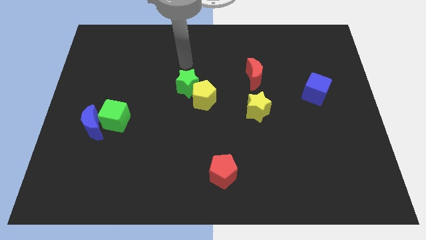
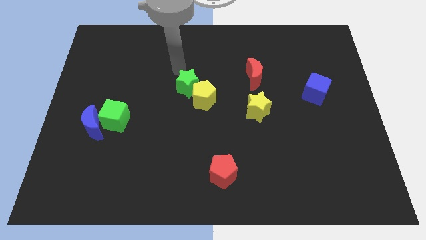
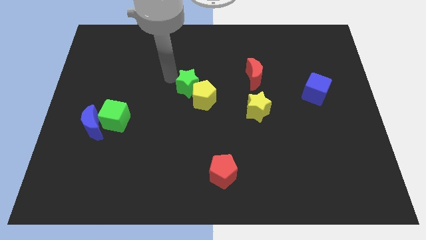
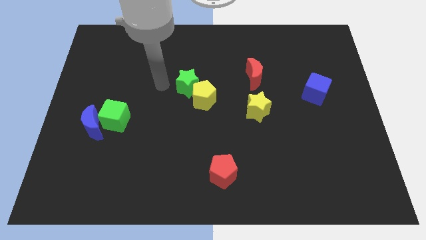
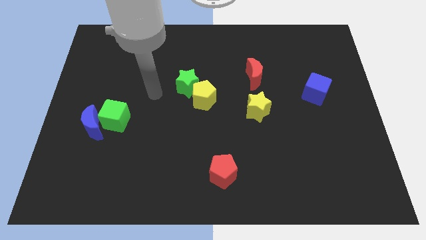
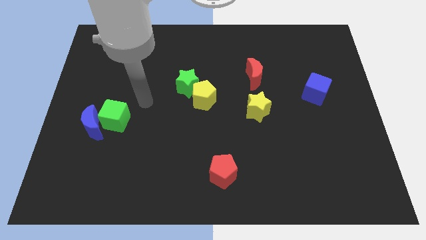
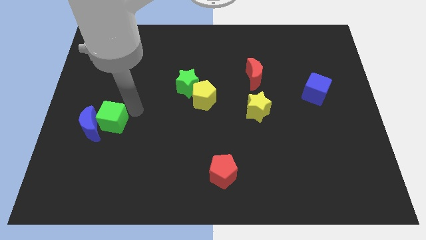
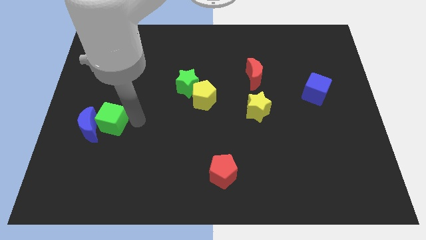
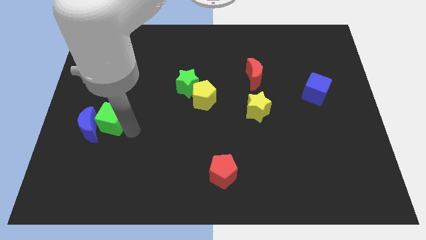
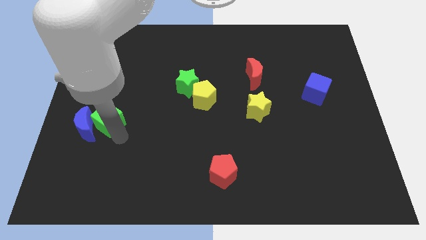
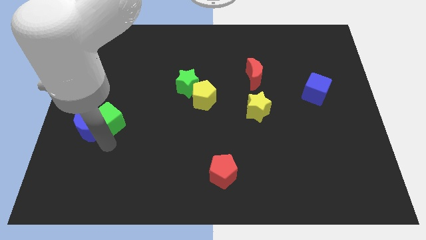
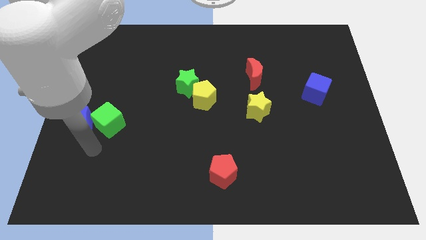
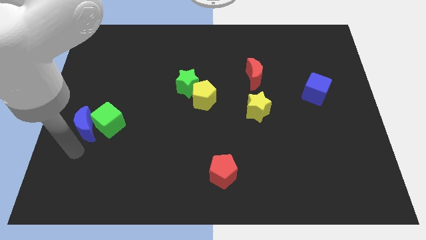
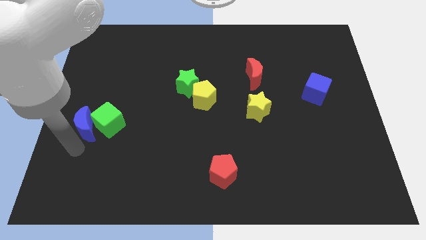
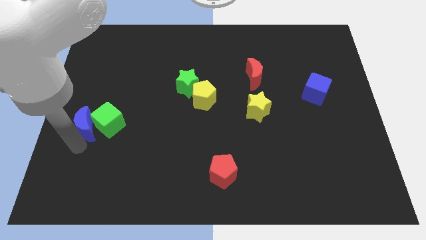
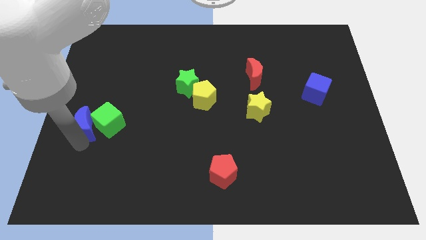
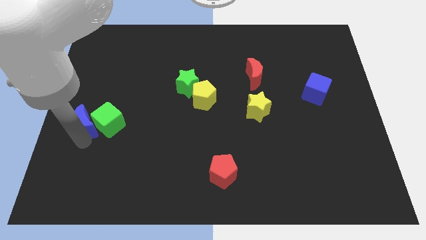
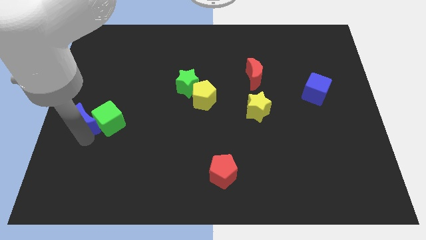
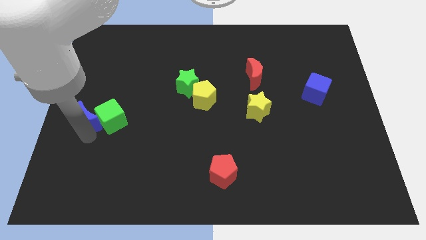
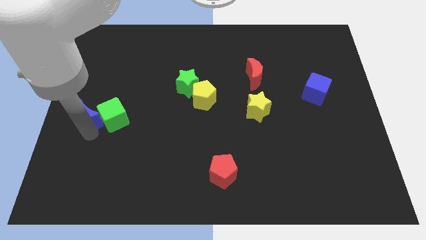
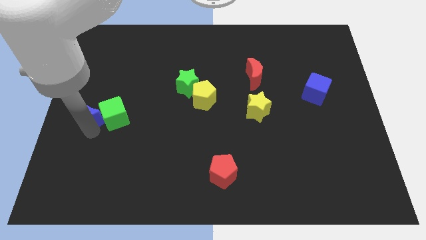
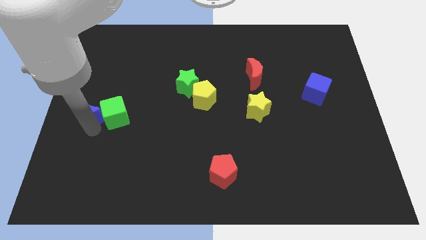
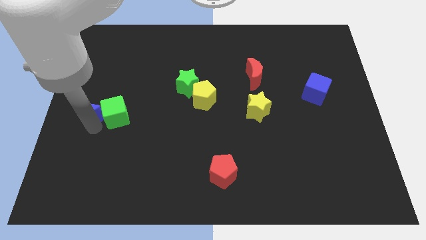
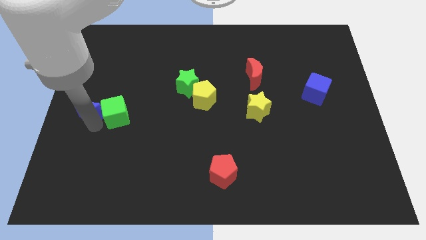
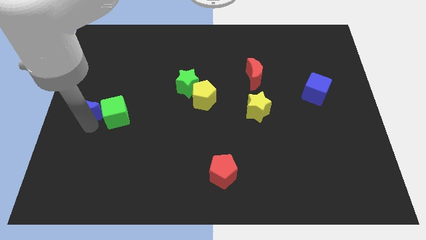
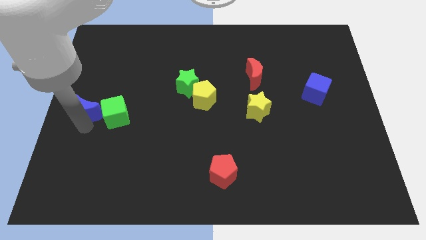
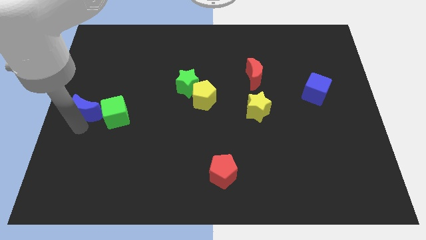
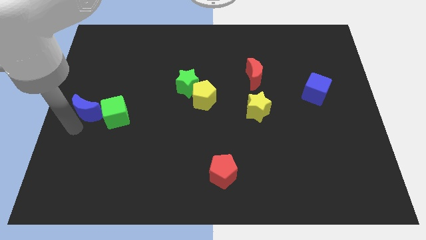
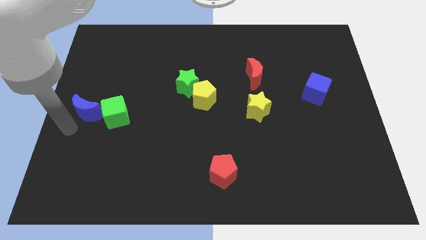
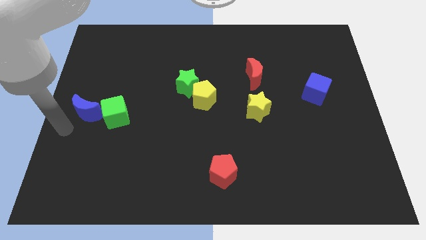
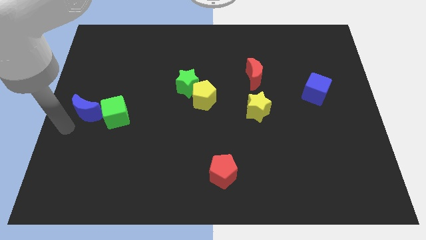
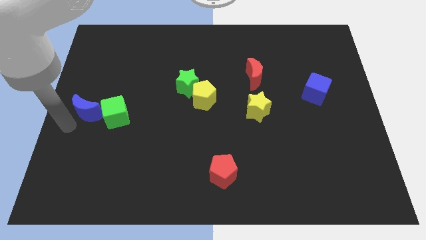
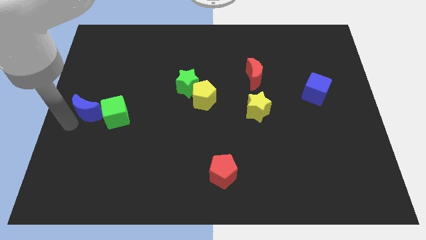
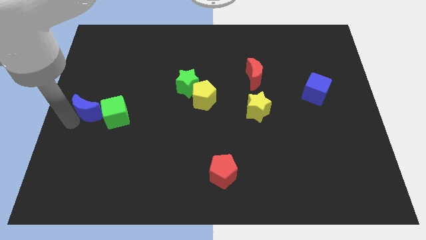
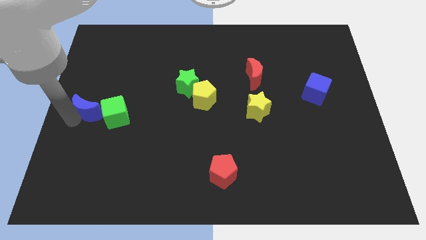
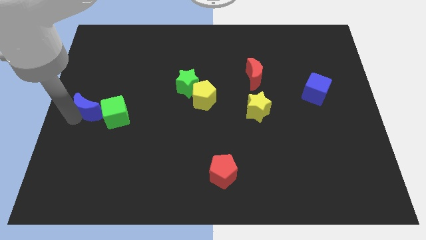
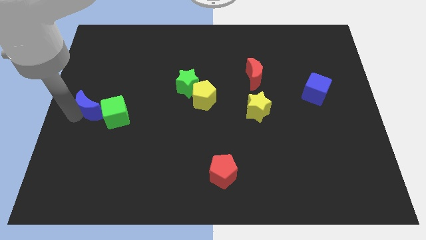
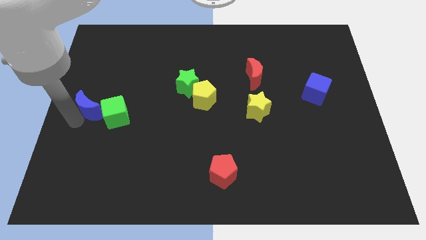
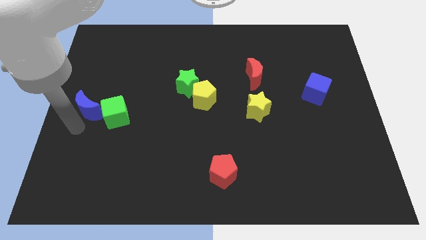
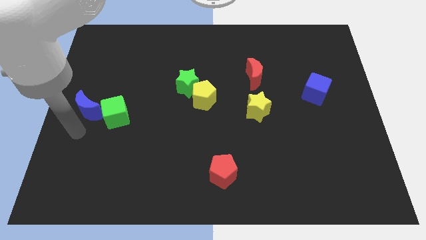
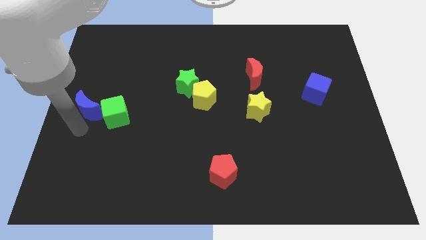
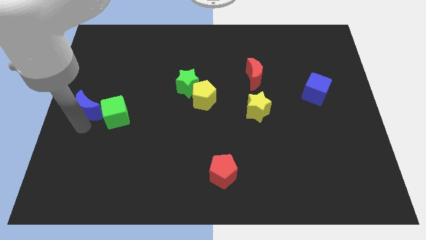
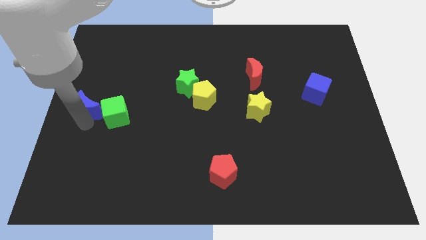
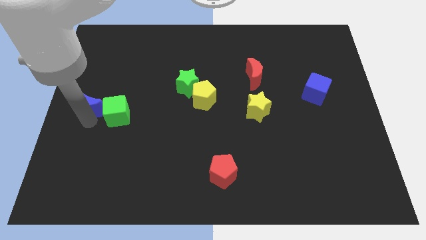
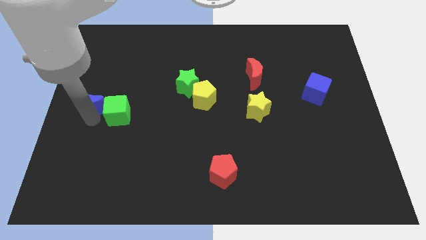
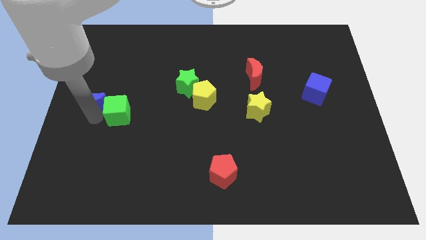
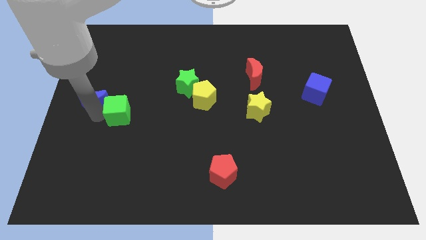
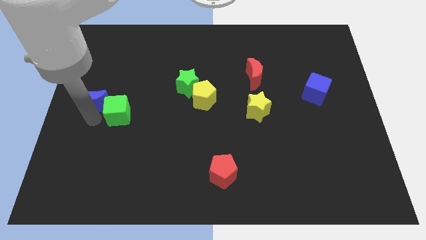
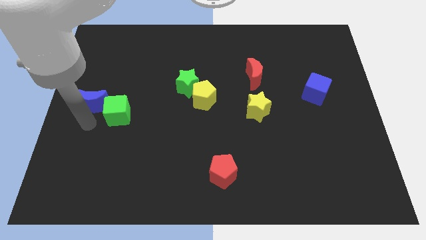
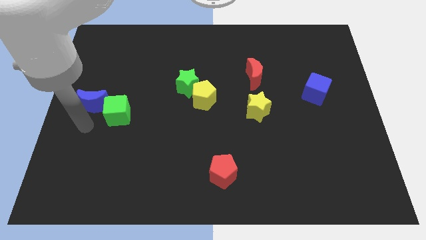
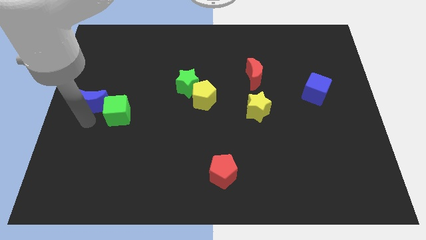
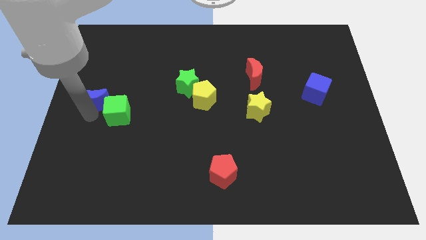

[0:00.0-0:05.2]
push the blue moon upwards somewhat
